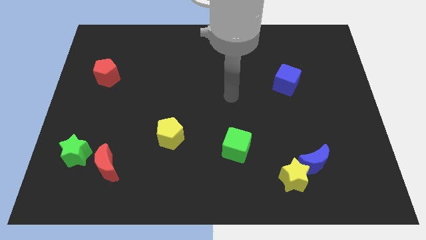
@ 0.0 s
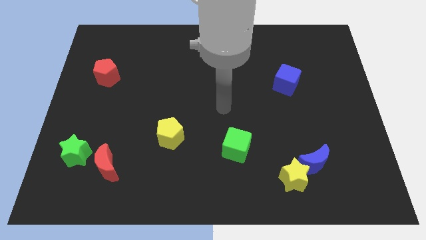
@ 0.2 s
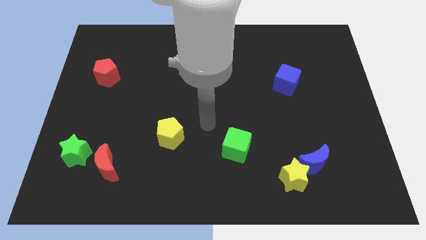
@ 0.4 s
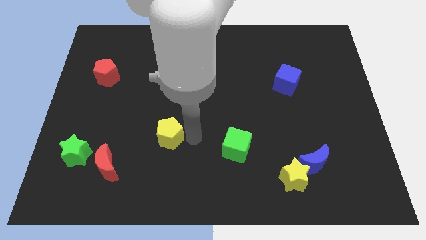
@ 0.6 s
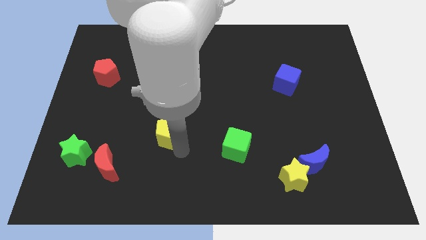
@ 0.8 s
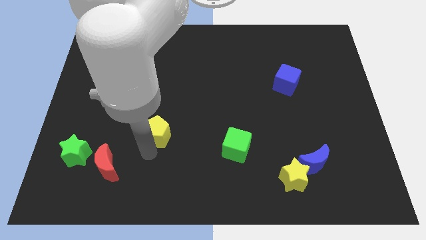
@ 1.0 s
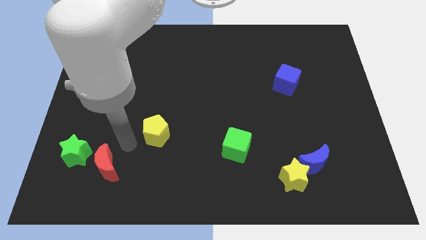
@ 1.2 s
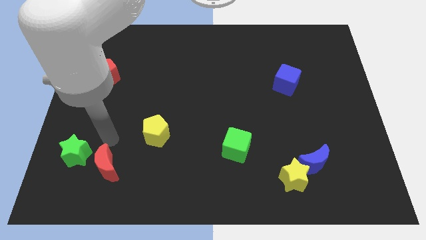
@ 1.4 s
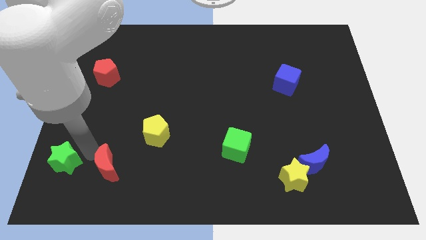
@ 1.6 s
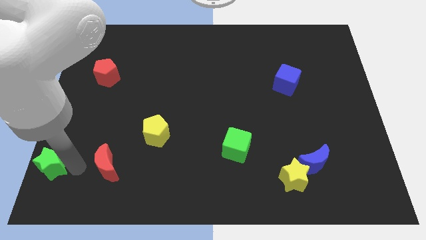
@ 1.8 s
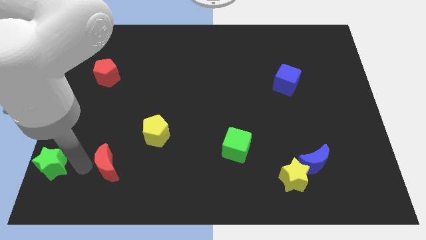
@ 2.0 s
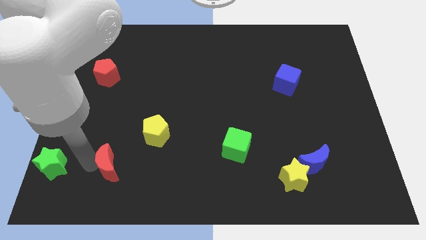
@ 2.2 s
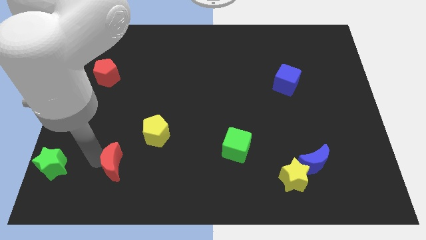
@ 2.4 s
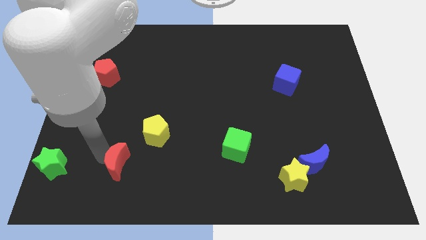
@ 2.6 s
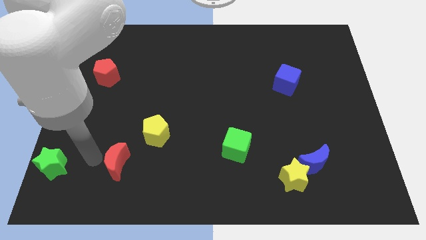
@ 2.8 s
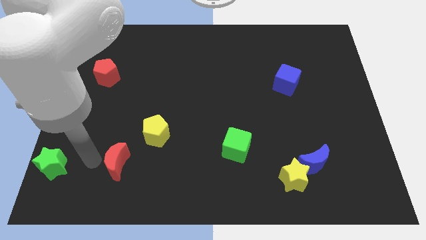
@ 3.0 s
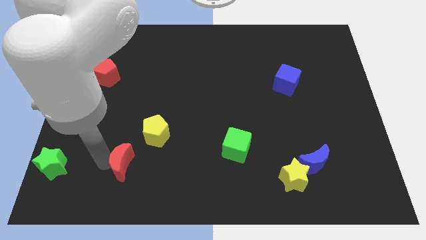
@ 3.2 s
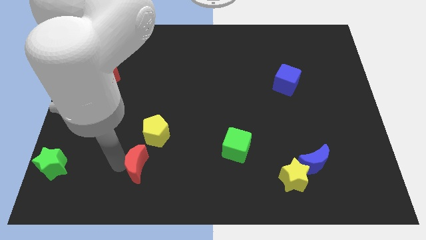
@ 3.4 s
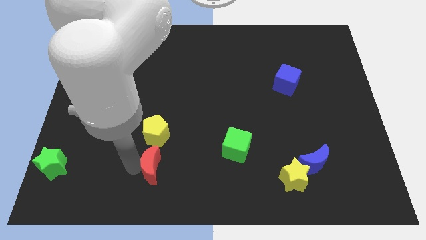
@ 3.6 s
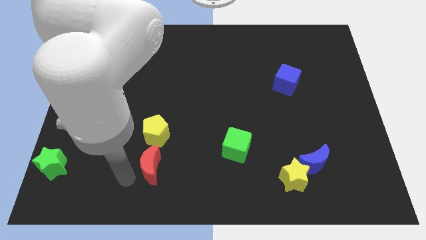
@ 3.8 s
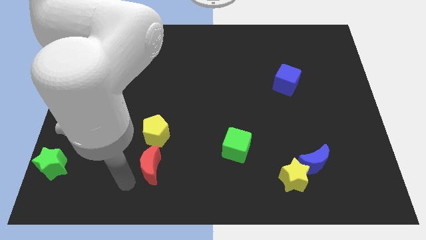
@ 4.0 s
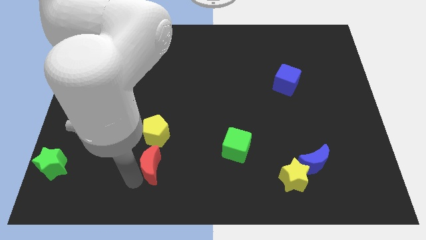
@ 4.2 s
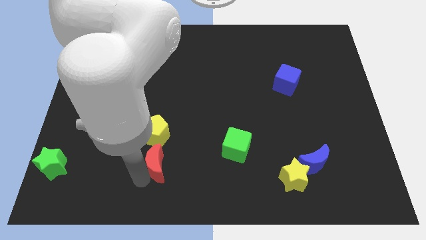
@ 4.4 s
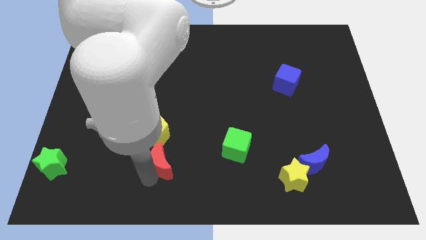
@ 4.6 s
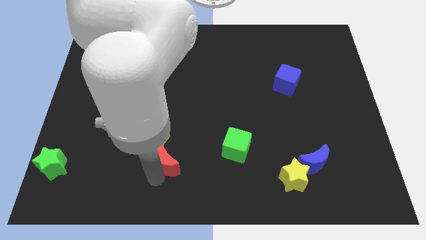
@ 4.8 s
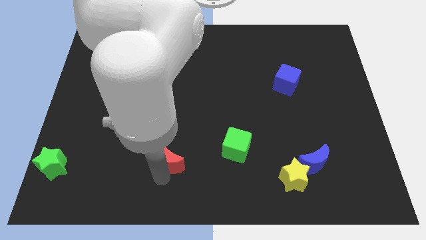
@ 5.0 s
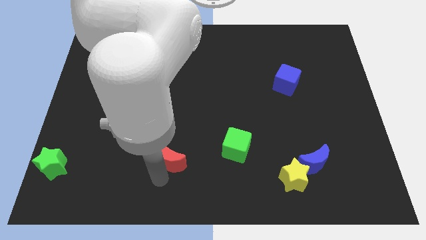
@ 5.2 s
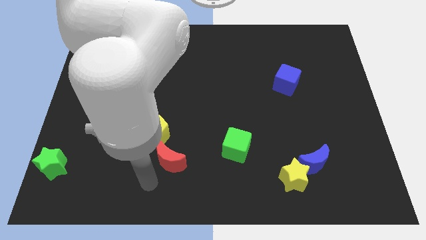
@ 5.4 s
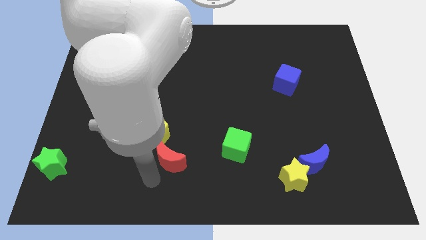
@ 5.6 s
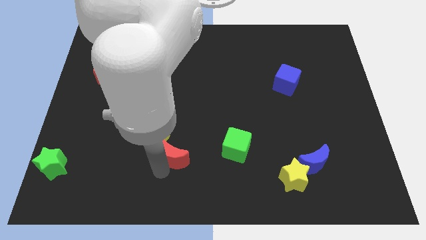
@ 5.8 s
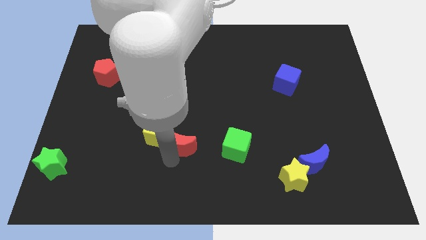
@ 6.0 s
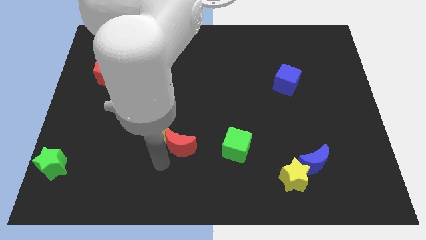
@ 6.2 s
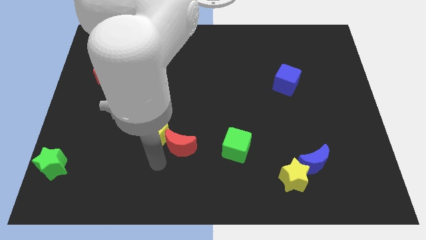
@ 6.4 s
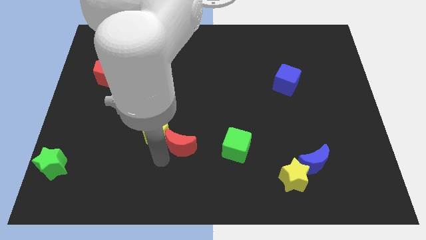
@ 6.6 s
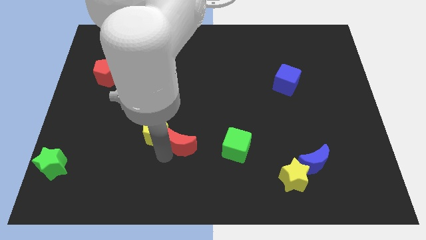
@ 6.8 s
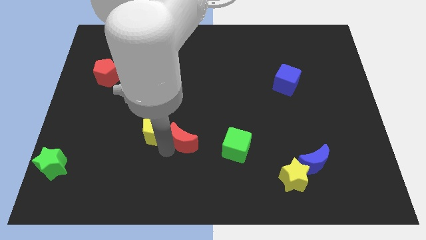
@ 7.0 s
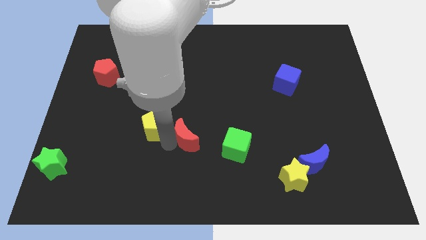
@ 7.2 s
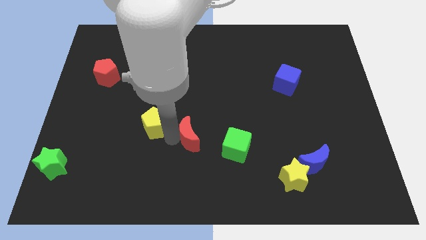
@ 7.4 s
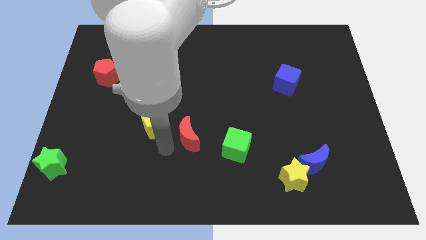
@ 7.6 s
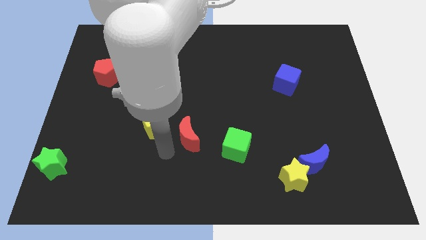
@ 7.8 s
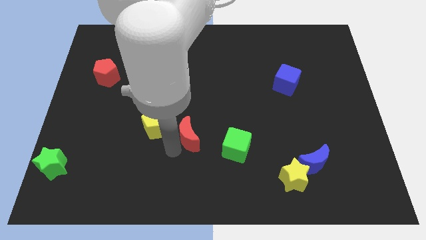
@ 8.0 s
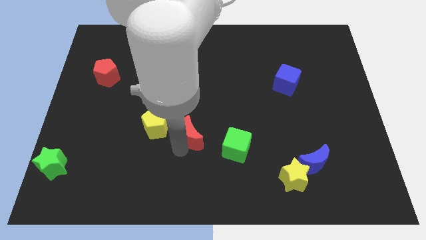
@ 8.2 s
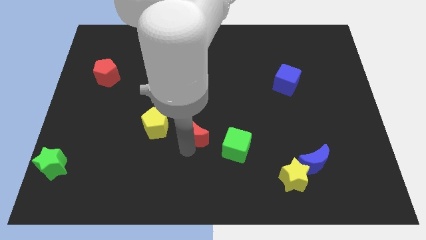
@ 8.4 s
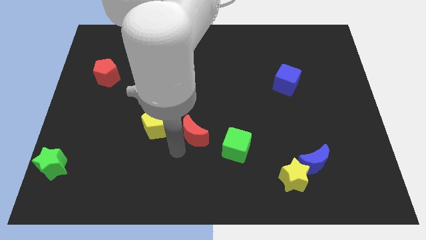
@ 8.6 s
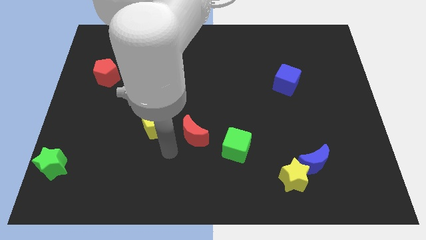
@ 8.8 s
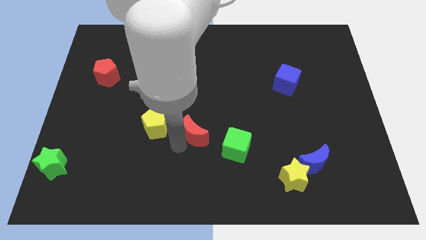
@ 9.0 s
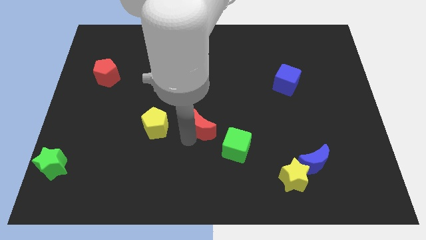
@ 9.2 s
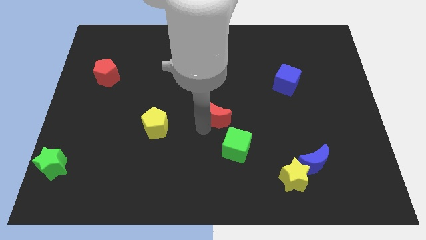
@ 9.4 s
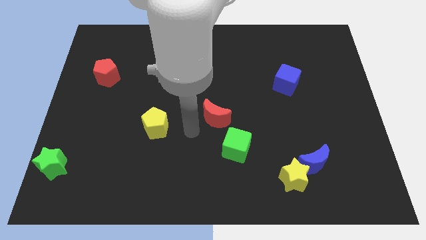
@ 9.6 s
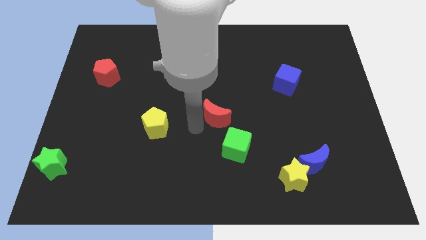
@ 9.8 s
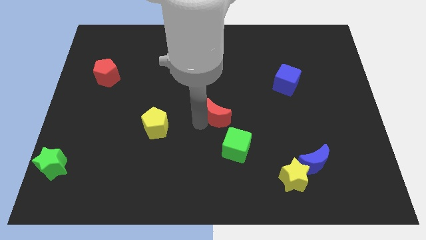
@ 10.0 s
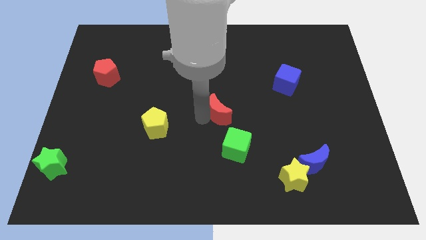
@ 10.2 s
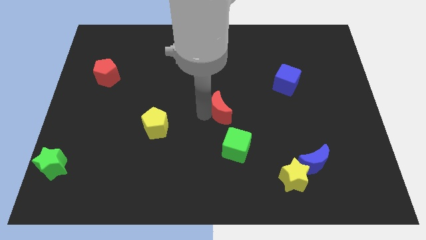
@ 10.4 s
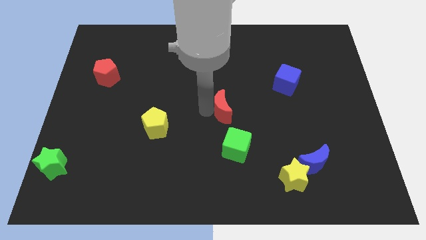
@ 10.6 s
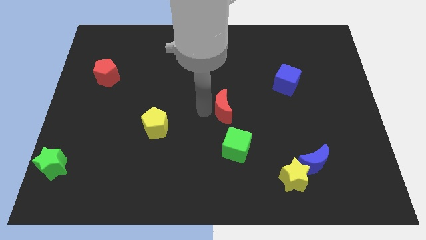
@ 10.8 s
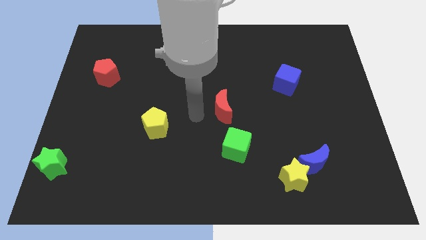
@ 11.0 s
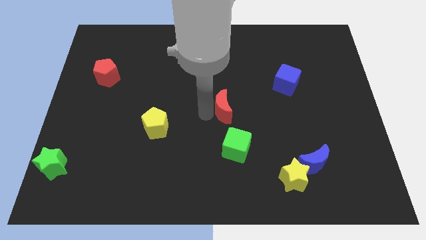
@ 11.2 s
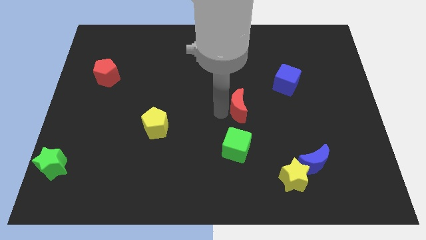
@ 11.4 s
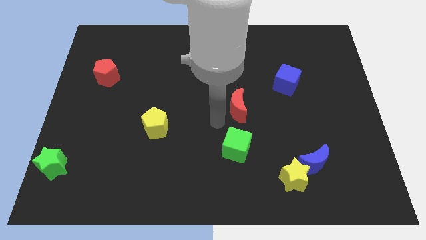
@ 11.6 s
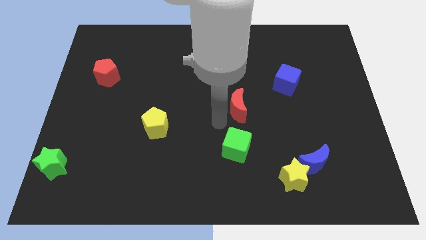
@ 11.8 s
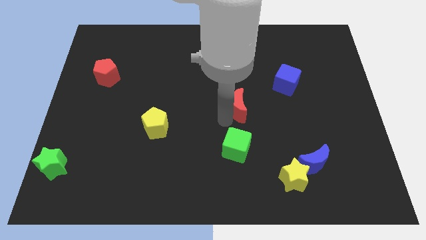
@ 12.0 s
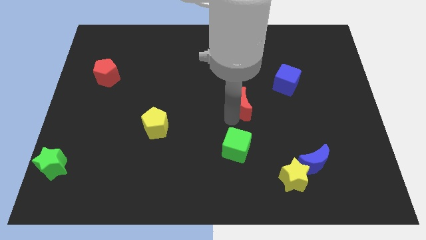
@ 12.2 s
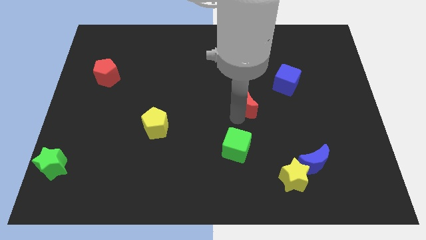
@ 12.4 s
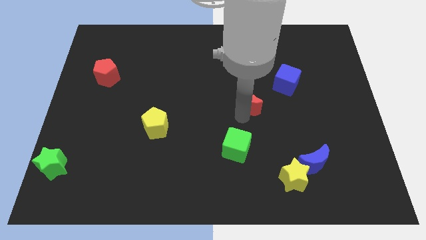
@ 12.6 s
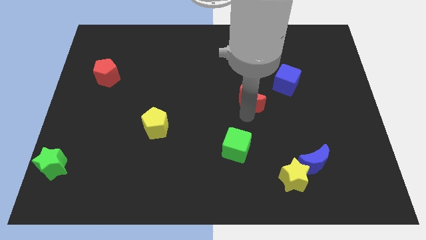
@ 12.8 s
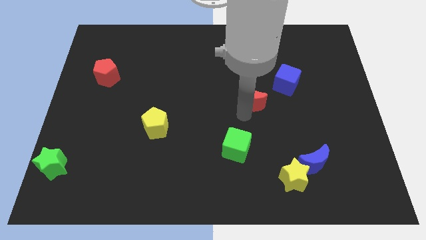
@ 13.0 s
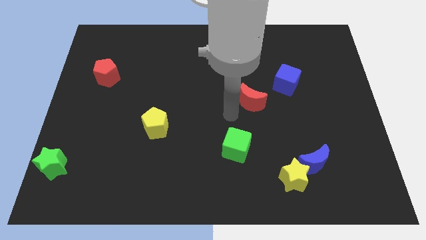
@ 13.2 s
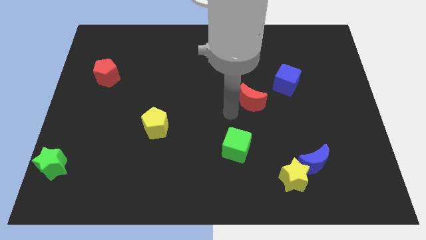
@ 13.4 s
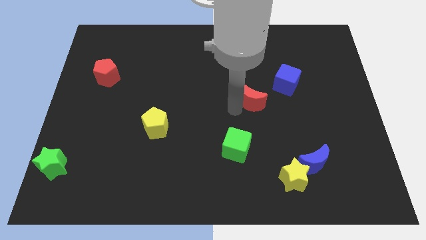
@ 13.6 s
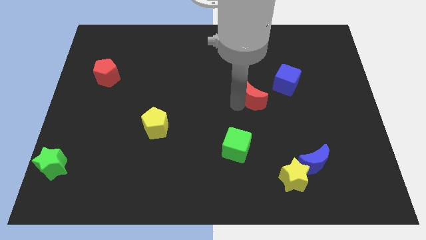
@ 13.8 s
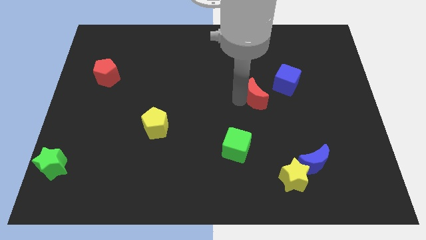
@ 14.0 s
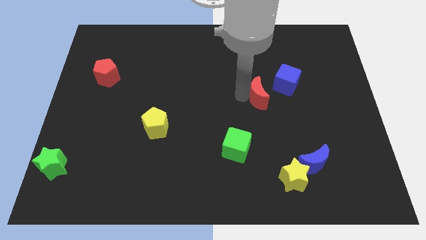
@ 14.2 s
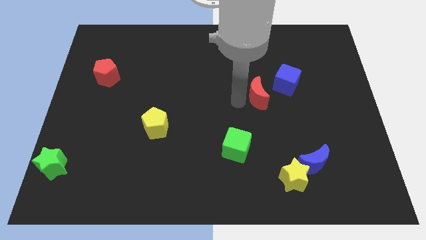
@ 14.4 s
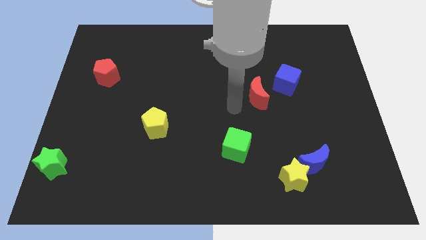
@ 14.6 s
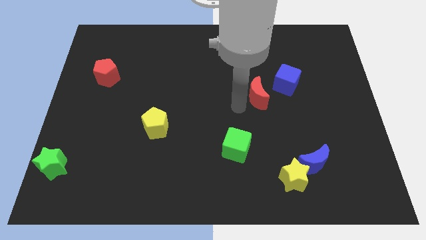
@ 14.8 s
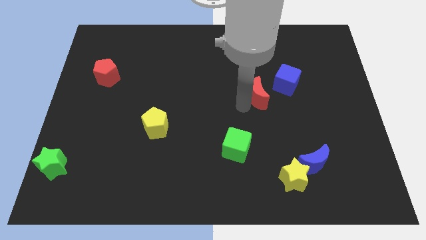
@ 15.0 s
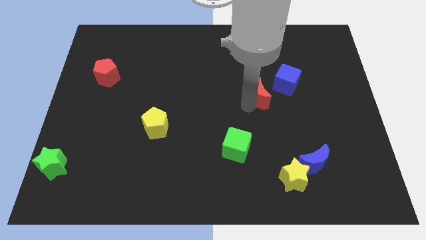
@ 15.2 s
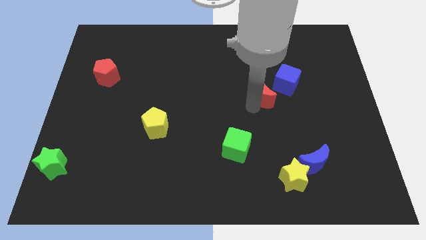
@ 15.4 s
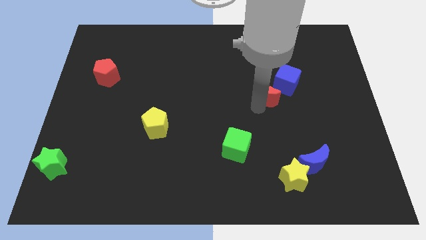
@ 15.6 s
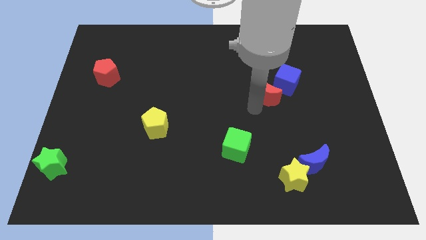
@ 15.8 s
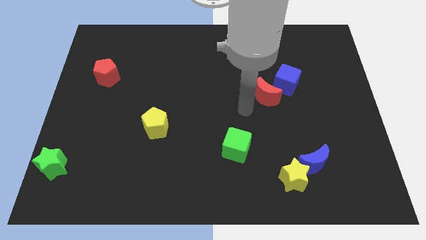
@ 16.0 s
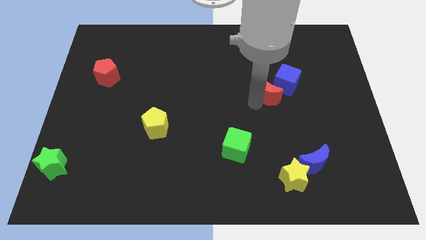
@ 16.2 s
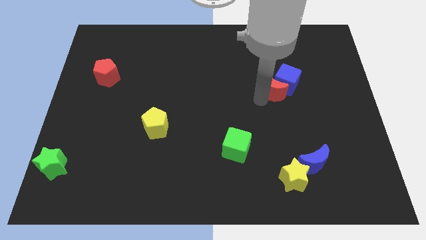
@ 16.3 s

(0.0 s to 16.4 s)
move the red moon close to the blue cube
